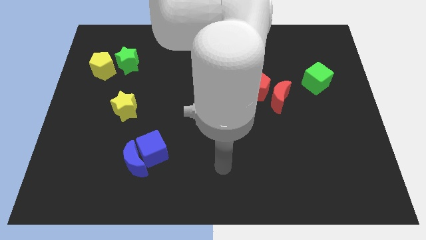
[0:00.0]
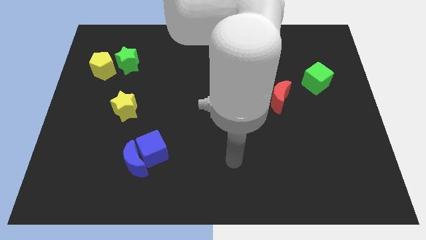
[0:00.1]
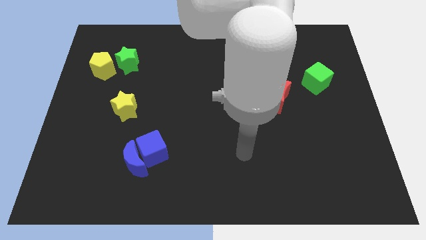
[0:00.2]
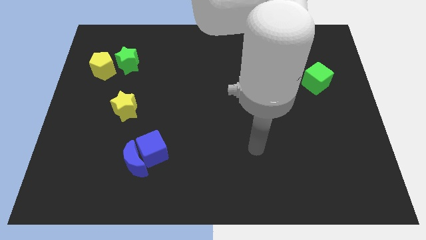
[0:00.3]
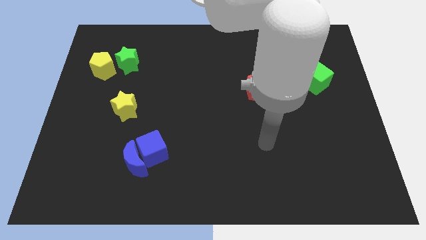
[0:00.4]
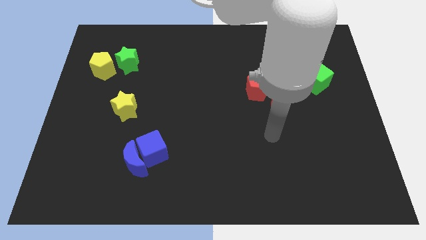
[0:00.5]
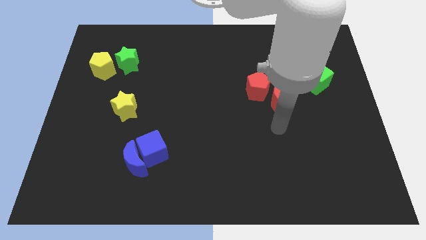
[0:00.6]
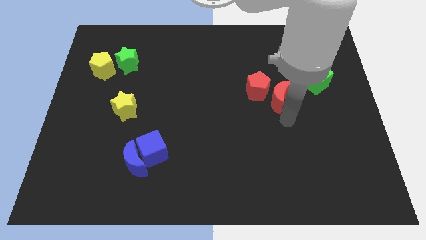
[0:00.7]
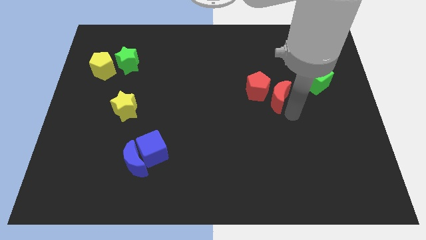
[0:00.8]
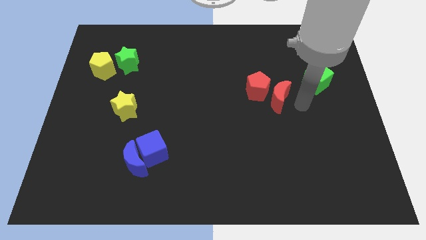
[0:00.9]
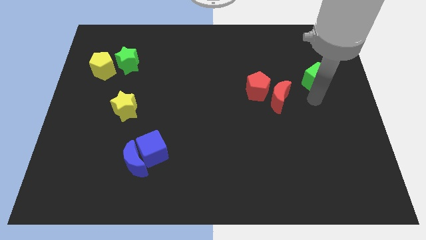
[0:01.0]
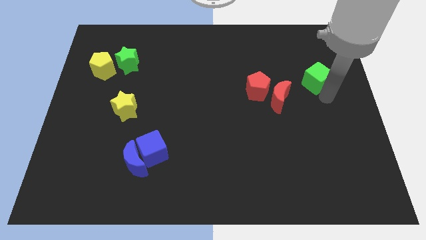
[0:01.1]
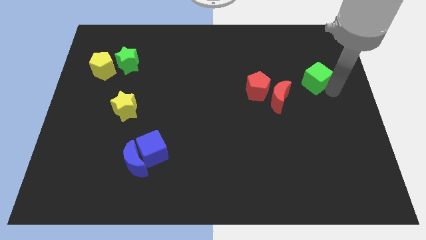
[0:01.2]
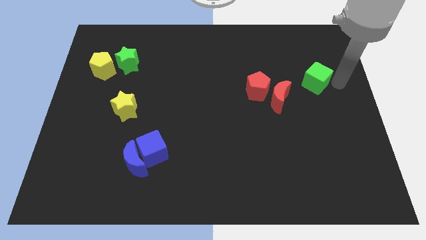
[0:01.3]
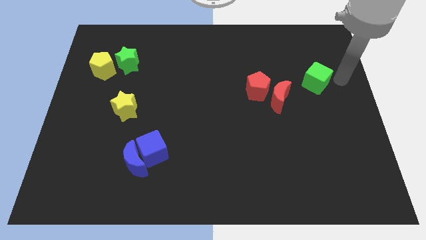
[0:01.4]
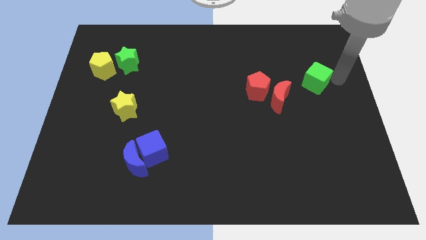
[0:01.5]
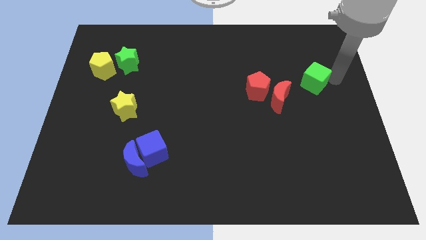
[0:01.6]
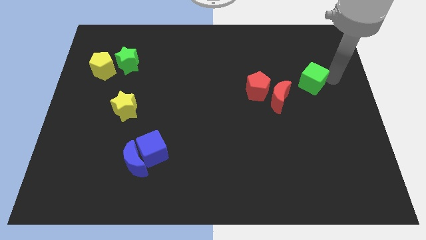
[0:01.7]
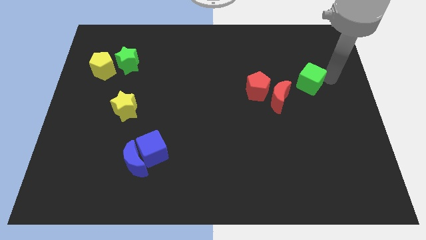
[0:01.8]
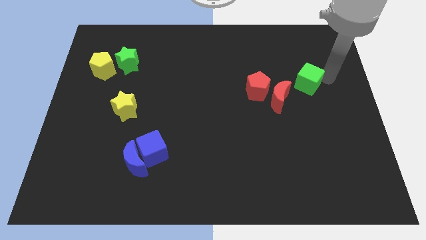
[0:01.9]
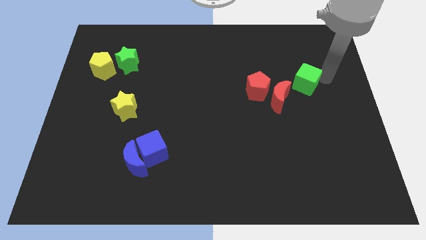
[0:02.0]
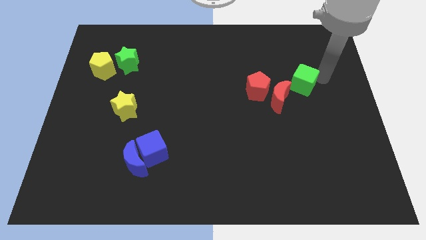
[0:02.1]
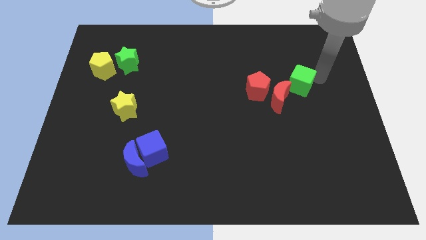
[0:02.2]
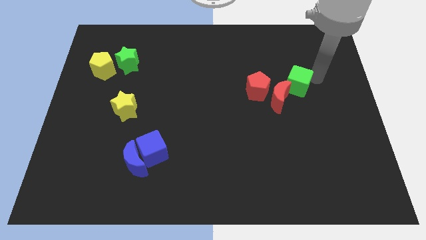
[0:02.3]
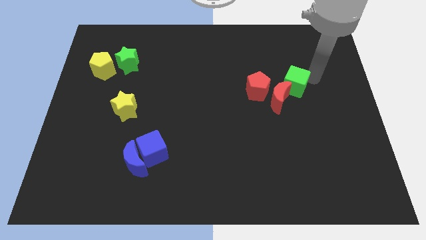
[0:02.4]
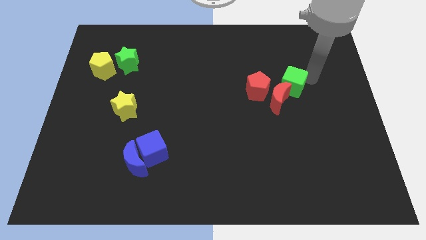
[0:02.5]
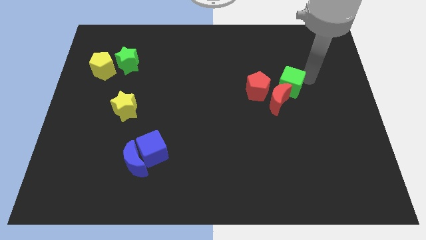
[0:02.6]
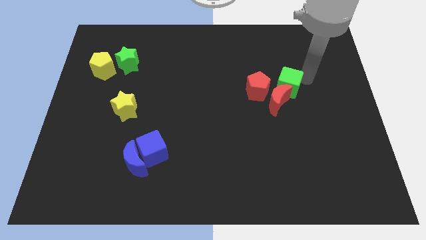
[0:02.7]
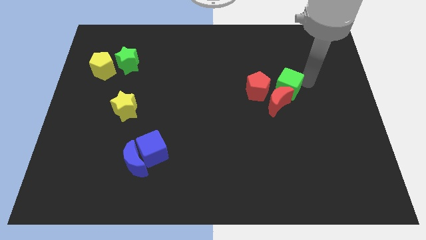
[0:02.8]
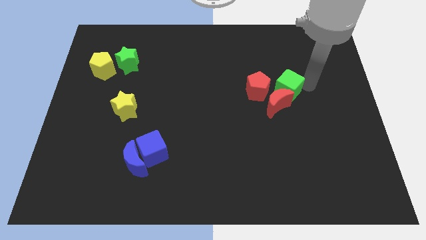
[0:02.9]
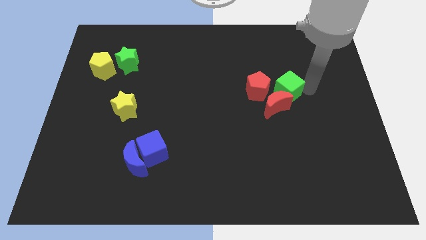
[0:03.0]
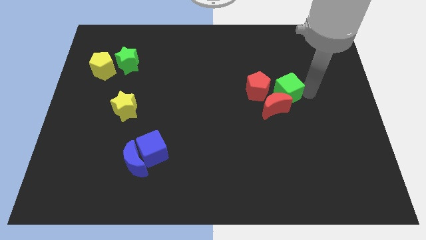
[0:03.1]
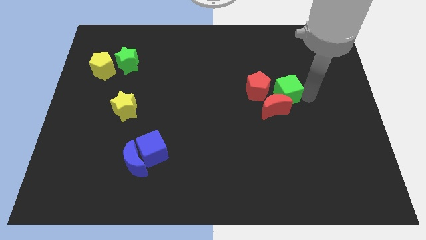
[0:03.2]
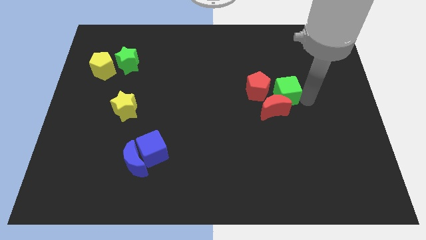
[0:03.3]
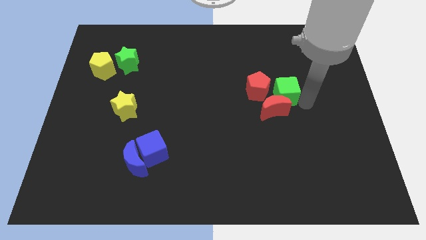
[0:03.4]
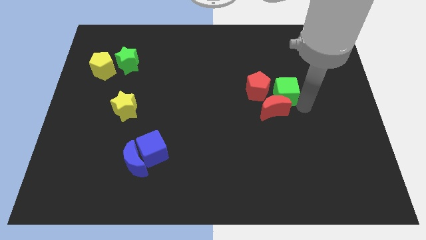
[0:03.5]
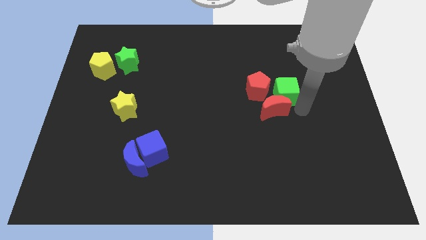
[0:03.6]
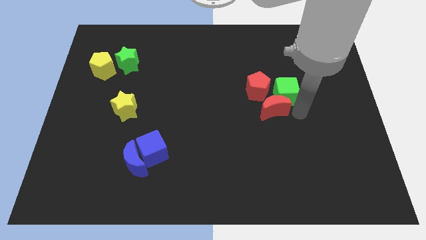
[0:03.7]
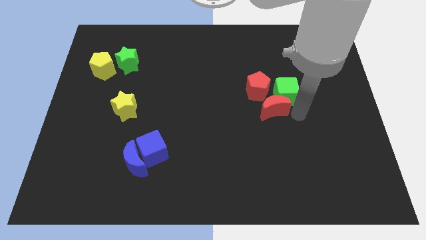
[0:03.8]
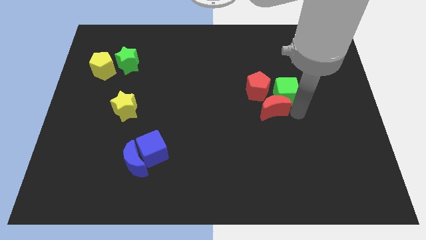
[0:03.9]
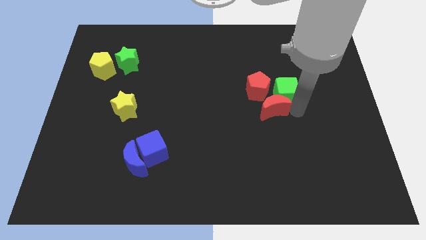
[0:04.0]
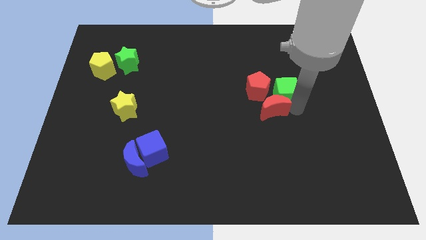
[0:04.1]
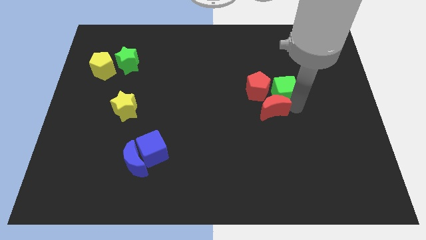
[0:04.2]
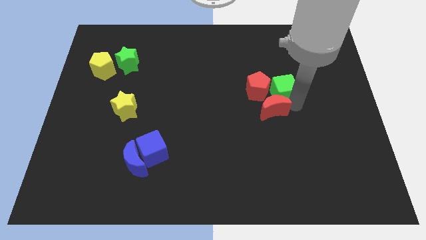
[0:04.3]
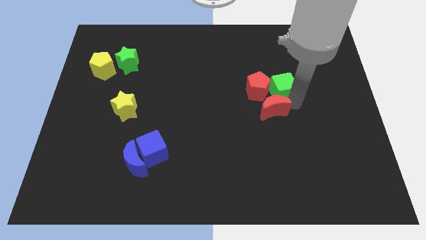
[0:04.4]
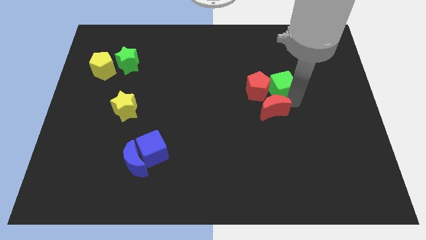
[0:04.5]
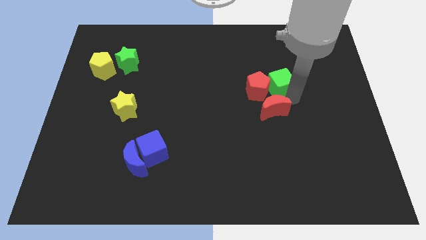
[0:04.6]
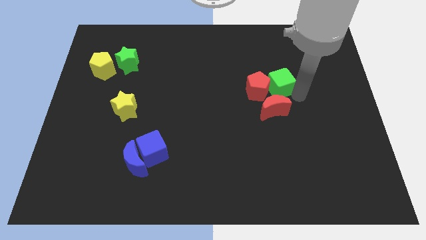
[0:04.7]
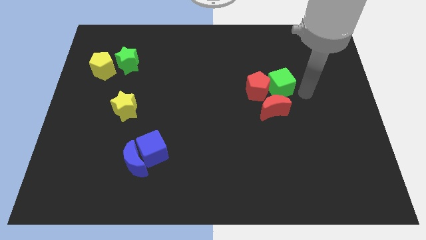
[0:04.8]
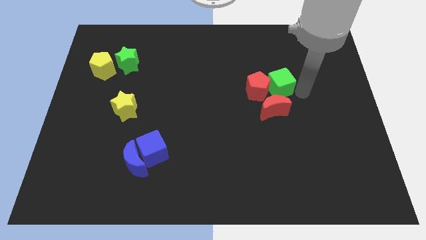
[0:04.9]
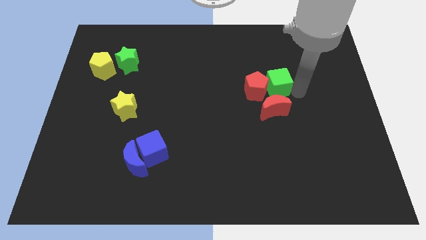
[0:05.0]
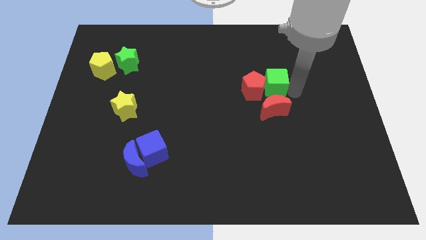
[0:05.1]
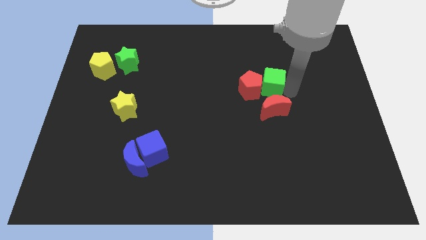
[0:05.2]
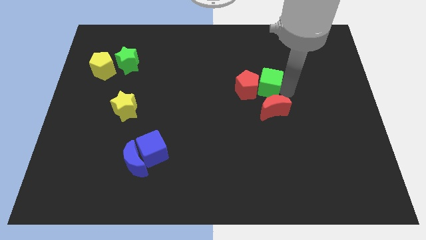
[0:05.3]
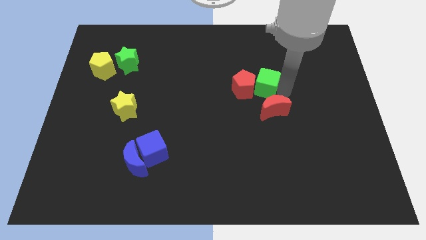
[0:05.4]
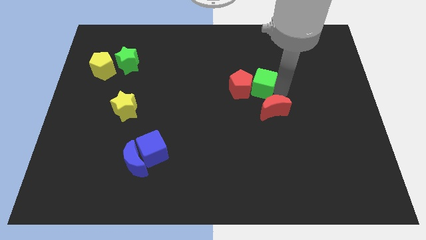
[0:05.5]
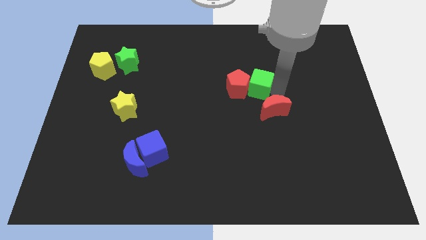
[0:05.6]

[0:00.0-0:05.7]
put the green cube to the middle of the board

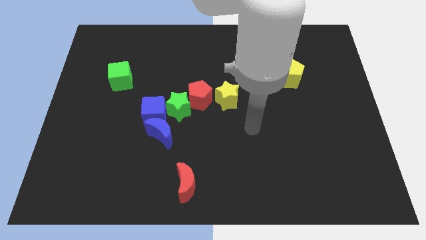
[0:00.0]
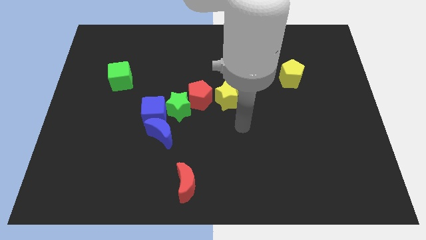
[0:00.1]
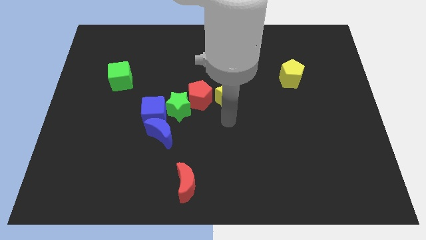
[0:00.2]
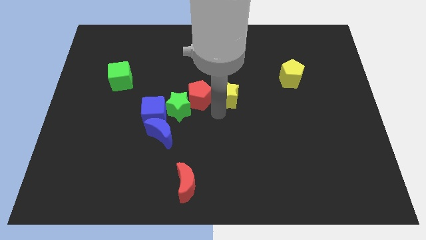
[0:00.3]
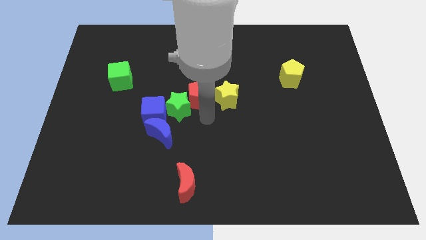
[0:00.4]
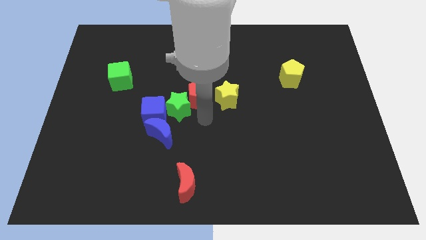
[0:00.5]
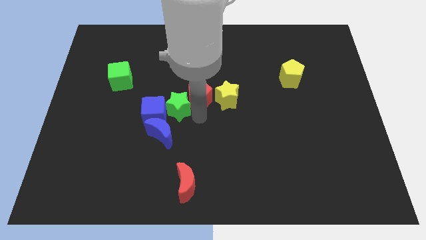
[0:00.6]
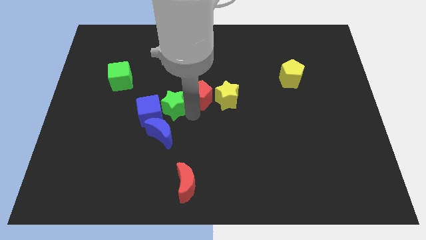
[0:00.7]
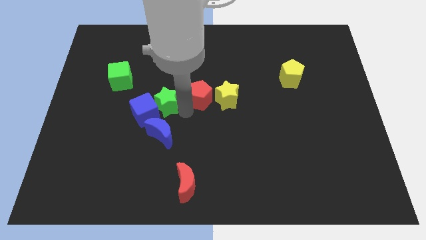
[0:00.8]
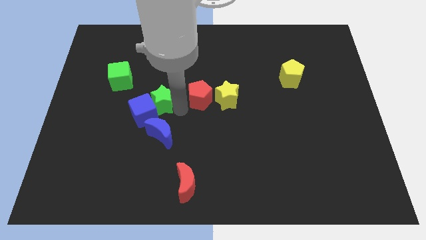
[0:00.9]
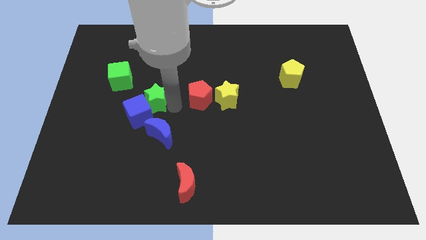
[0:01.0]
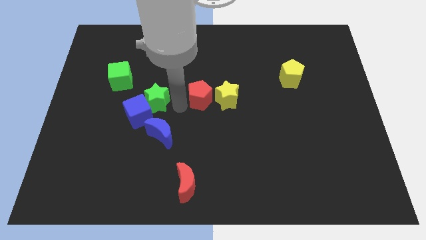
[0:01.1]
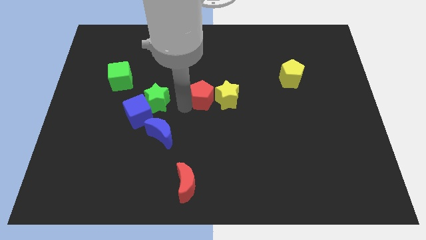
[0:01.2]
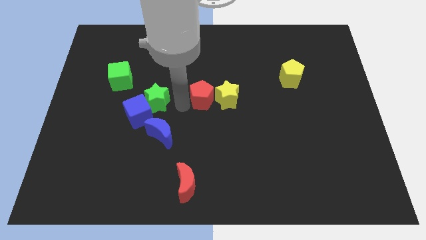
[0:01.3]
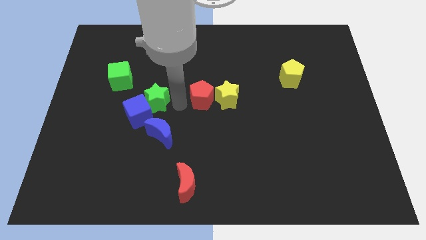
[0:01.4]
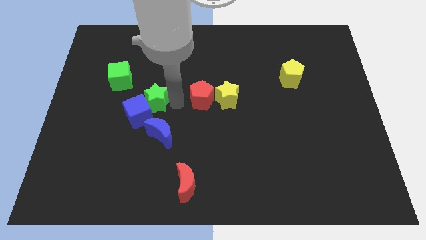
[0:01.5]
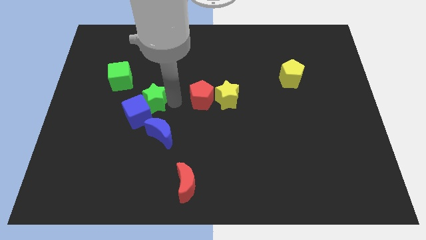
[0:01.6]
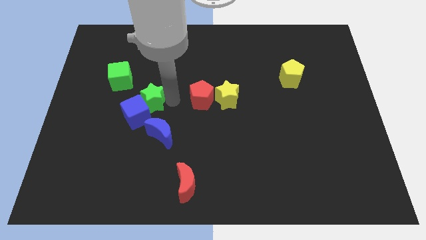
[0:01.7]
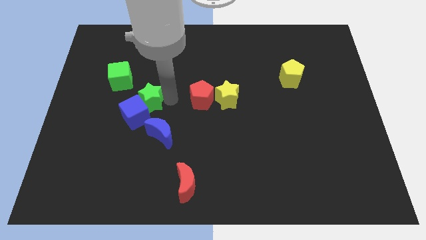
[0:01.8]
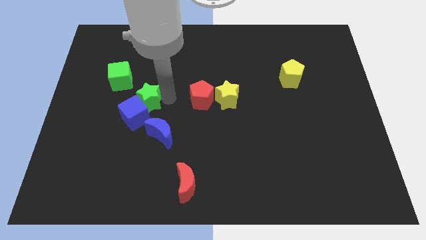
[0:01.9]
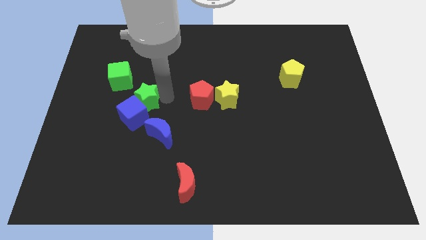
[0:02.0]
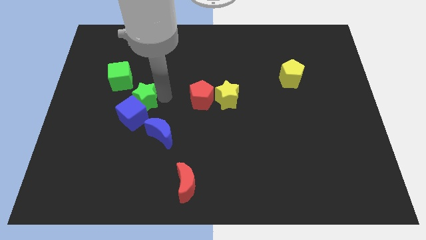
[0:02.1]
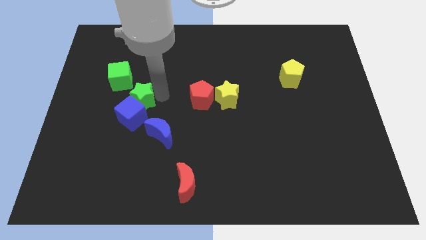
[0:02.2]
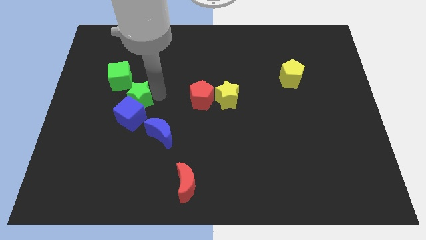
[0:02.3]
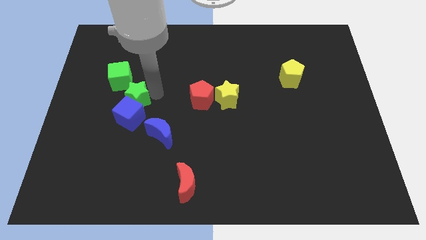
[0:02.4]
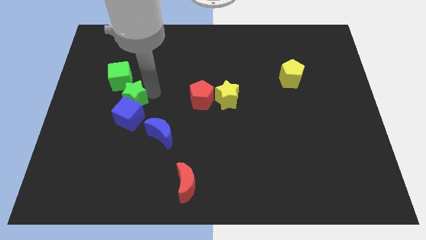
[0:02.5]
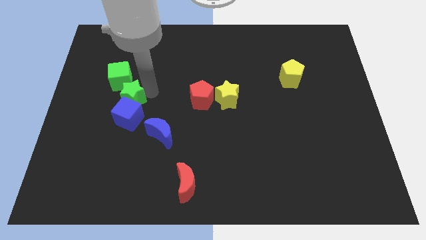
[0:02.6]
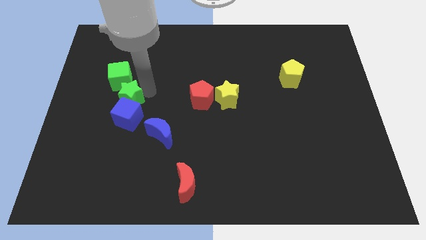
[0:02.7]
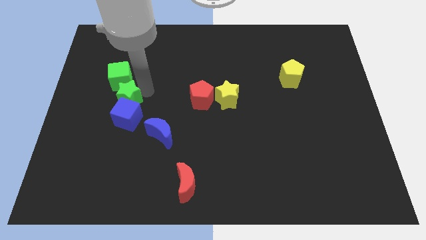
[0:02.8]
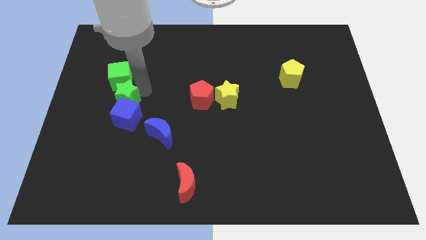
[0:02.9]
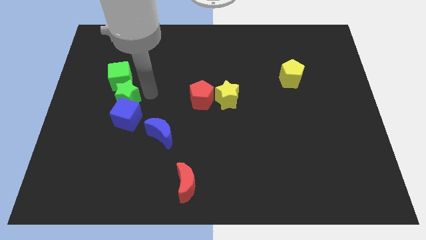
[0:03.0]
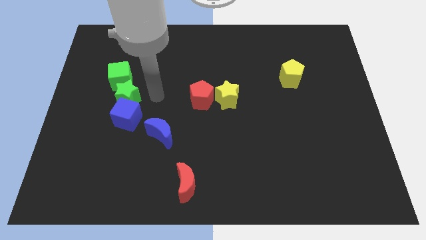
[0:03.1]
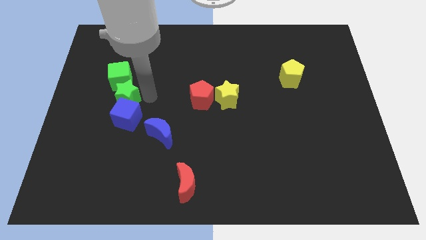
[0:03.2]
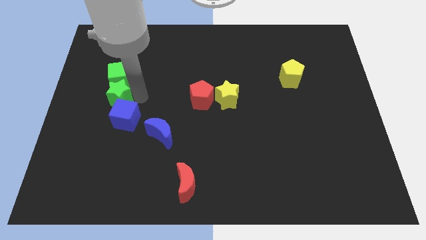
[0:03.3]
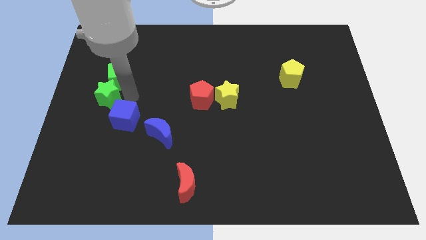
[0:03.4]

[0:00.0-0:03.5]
push the green star to the center left
